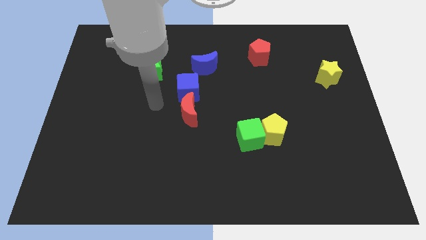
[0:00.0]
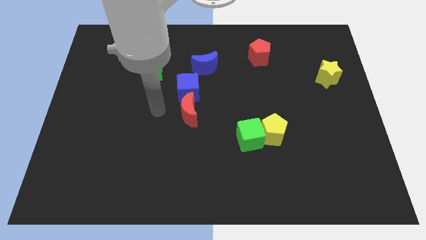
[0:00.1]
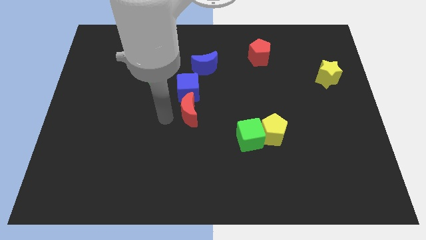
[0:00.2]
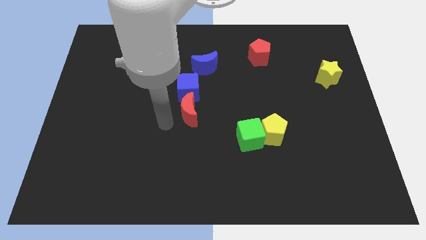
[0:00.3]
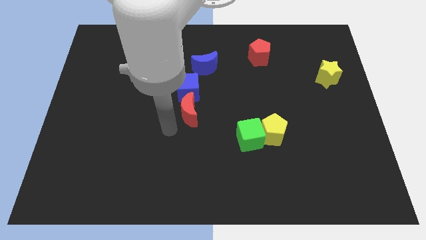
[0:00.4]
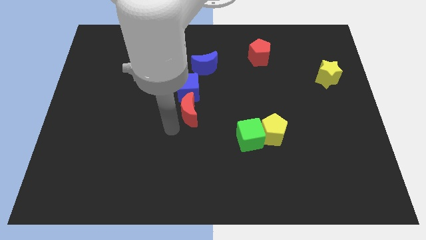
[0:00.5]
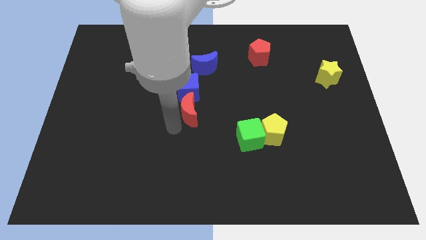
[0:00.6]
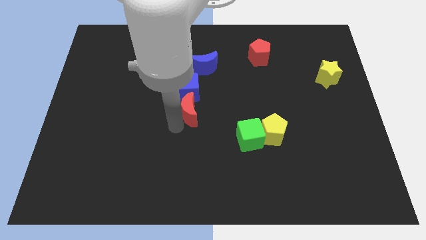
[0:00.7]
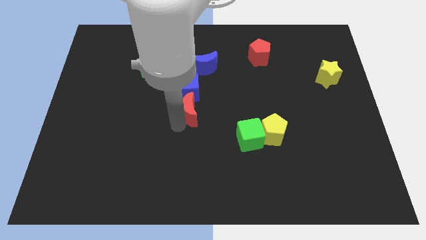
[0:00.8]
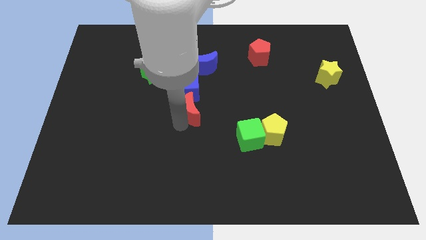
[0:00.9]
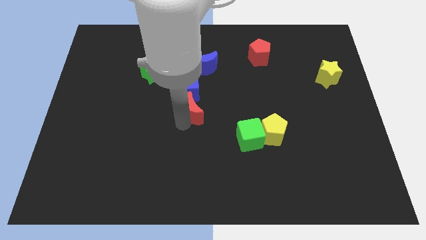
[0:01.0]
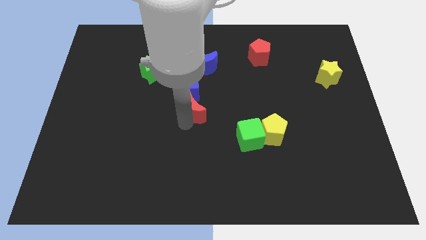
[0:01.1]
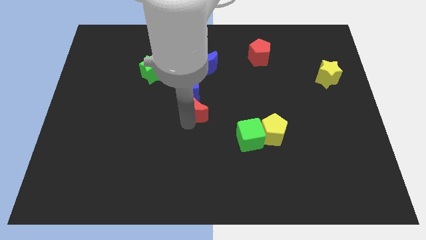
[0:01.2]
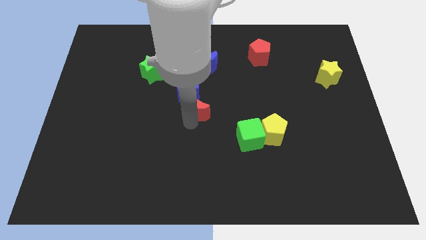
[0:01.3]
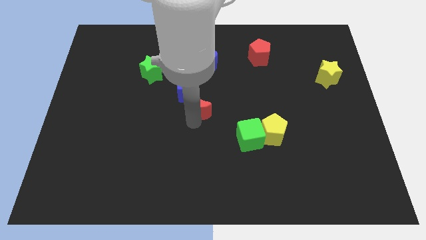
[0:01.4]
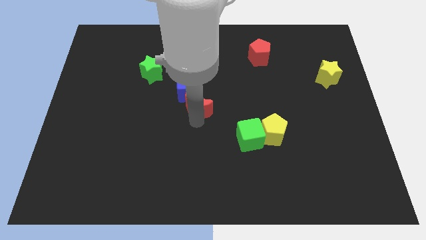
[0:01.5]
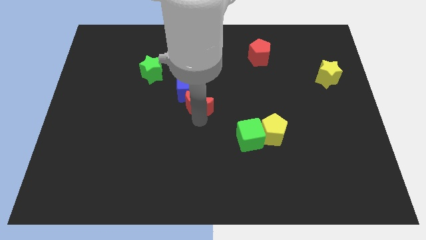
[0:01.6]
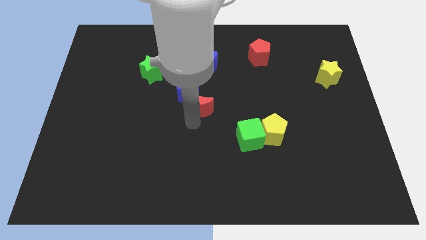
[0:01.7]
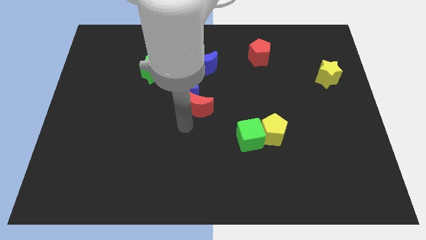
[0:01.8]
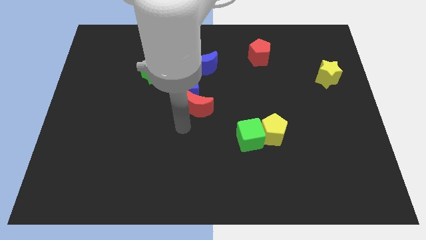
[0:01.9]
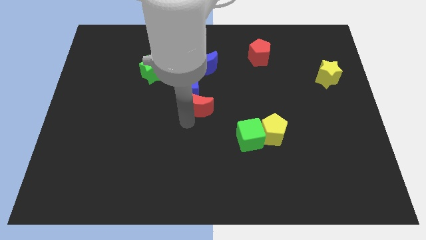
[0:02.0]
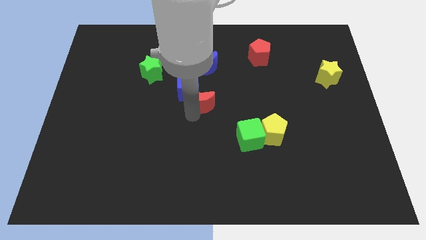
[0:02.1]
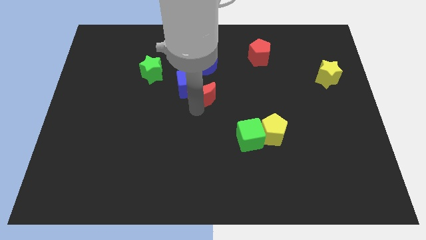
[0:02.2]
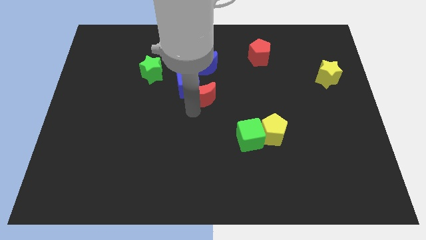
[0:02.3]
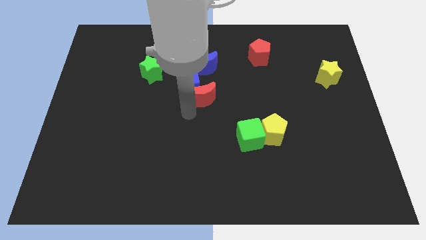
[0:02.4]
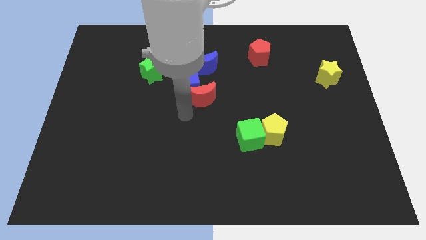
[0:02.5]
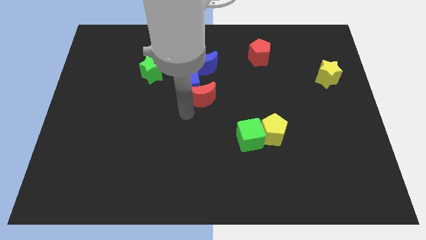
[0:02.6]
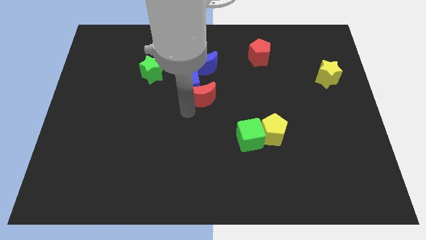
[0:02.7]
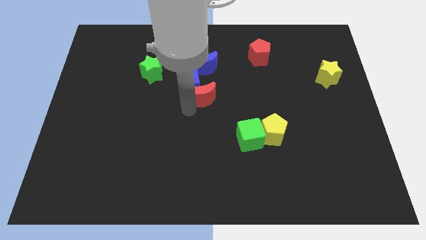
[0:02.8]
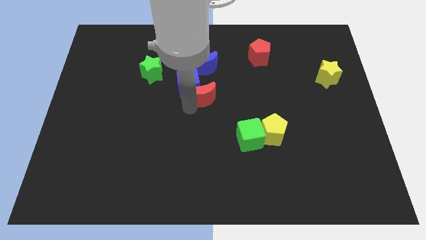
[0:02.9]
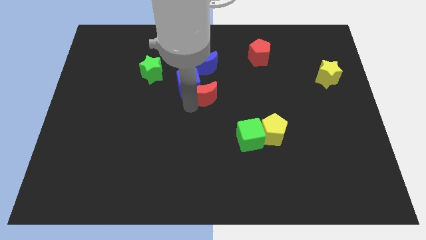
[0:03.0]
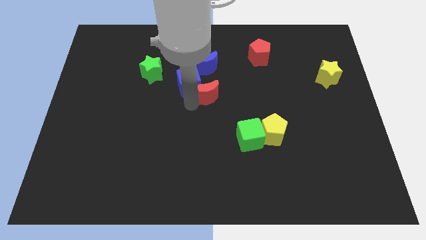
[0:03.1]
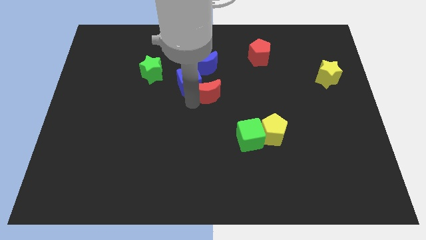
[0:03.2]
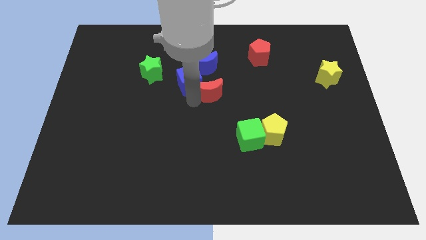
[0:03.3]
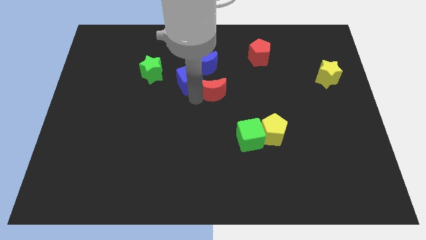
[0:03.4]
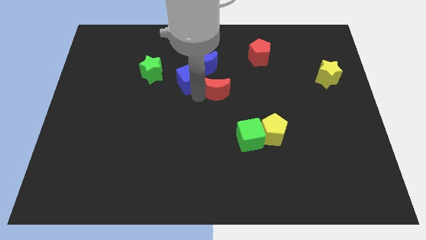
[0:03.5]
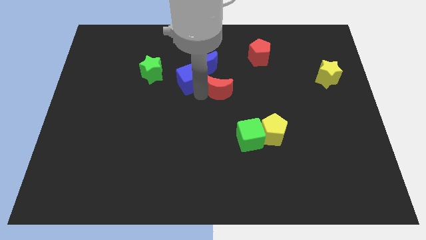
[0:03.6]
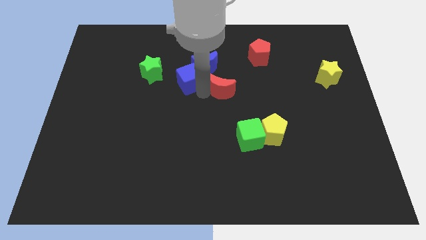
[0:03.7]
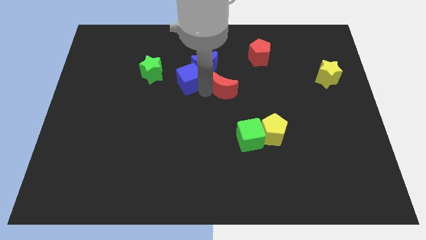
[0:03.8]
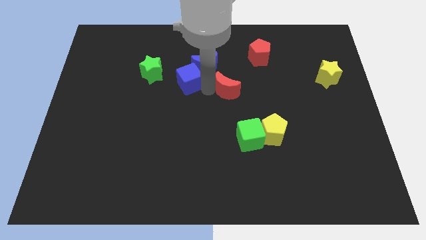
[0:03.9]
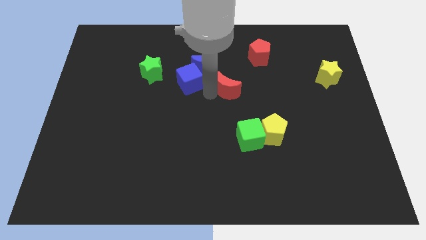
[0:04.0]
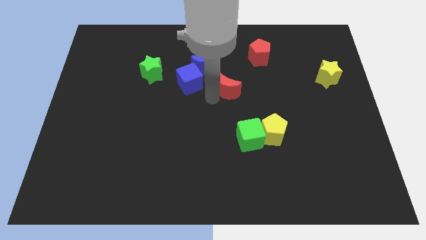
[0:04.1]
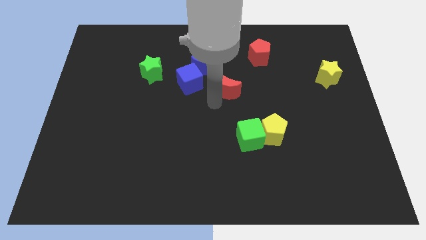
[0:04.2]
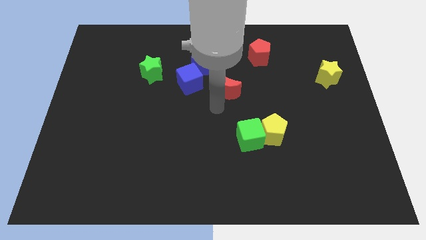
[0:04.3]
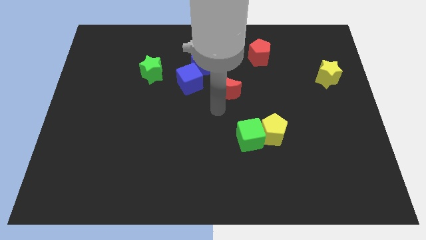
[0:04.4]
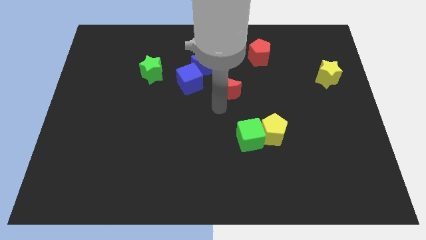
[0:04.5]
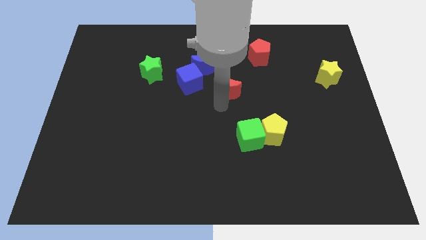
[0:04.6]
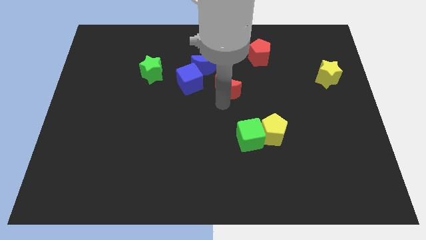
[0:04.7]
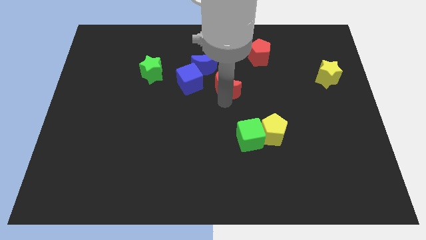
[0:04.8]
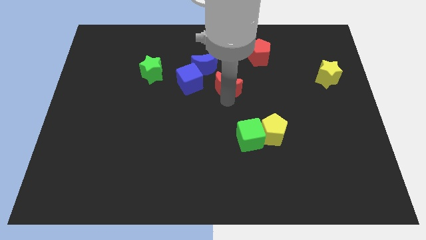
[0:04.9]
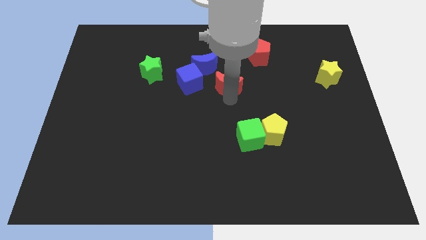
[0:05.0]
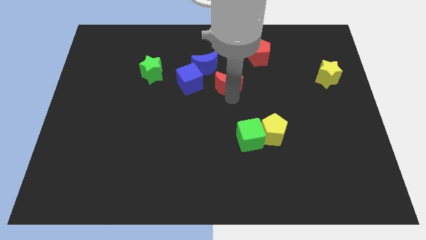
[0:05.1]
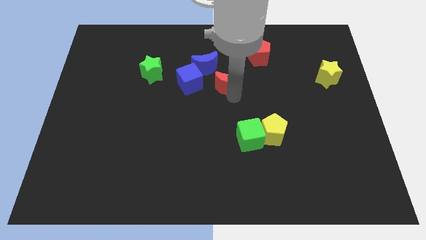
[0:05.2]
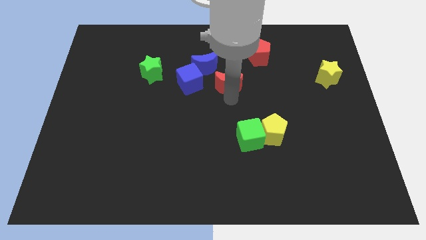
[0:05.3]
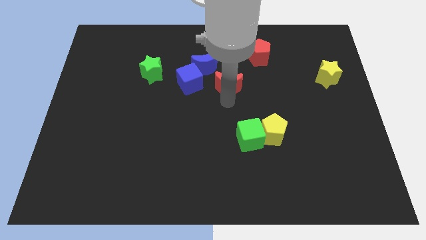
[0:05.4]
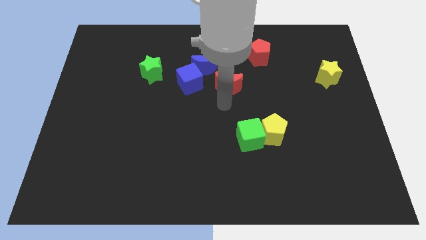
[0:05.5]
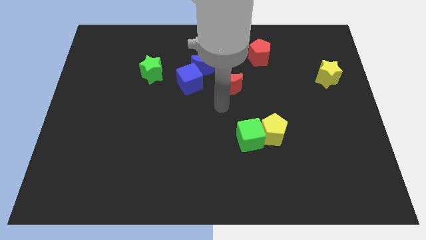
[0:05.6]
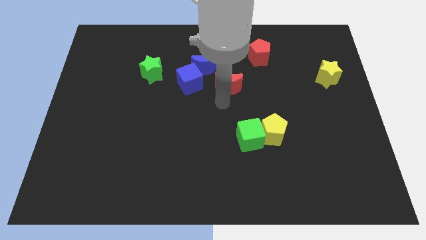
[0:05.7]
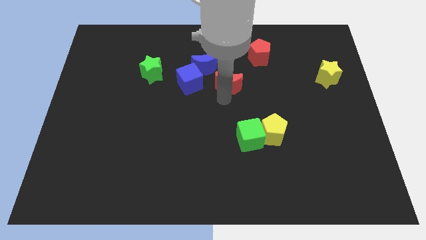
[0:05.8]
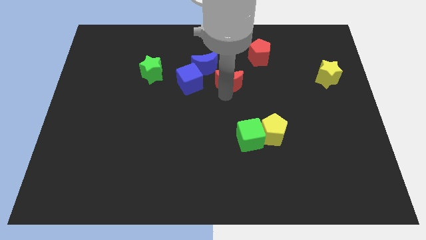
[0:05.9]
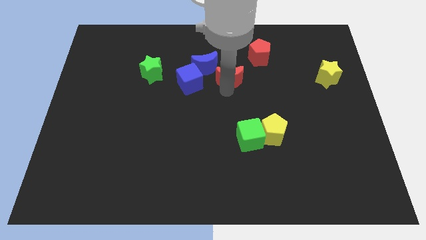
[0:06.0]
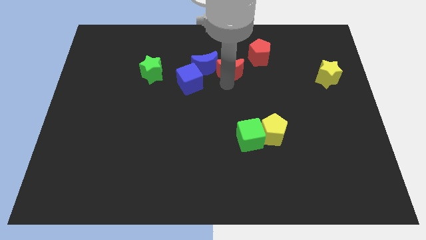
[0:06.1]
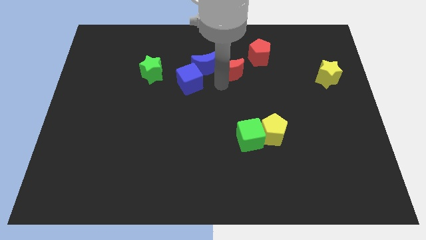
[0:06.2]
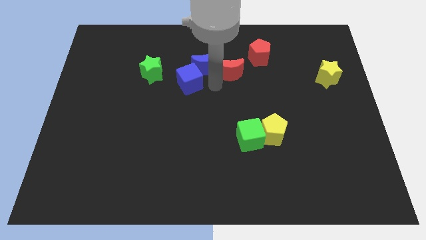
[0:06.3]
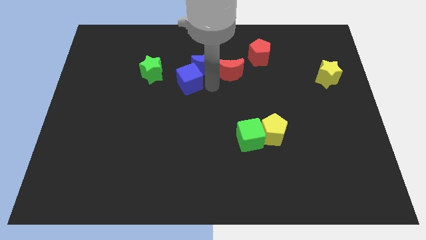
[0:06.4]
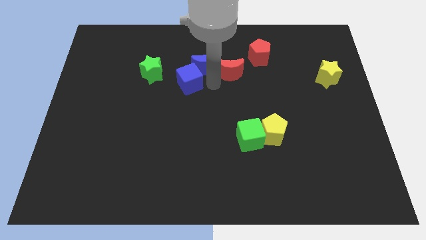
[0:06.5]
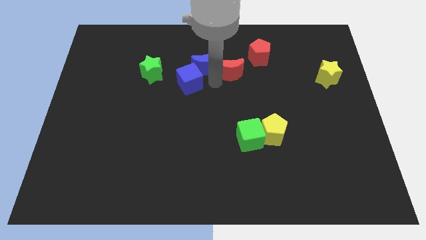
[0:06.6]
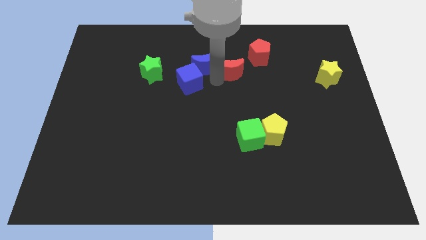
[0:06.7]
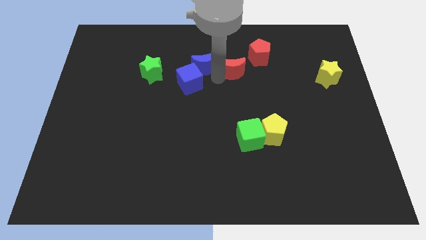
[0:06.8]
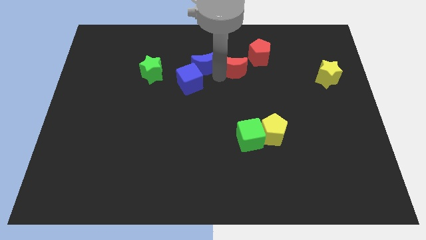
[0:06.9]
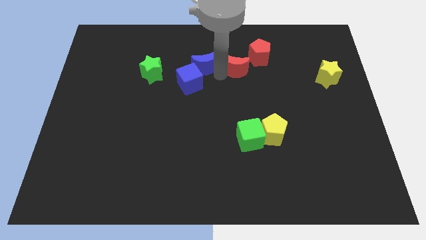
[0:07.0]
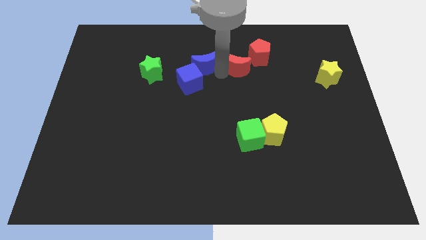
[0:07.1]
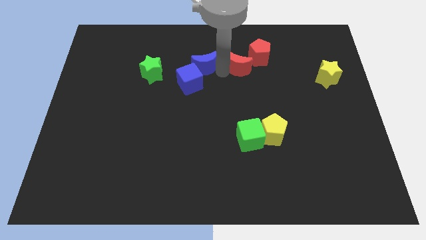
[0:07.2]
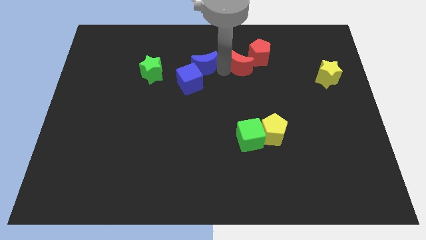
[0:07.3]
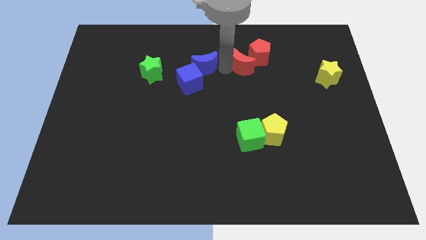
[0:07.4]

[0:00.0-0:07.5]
put the red moon towards the red pentagon
